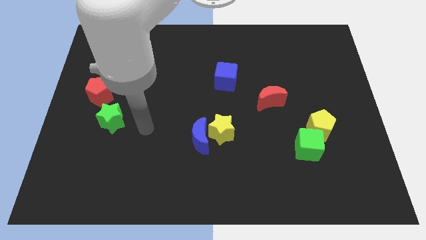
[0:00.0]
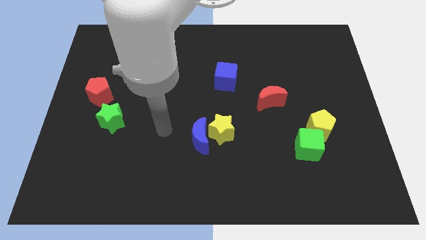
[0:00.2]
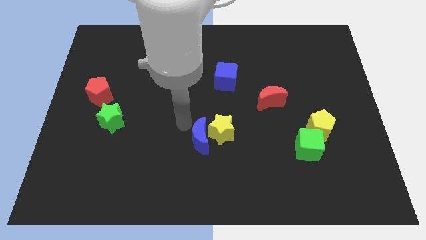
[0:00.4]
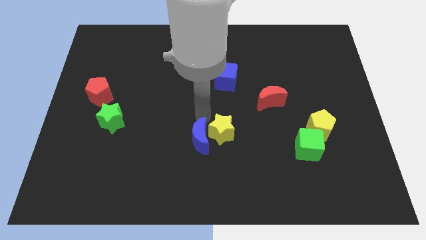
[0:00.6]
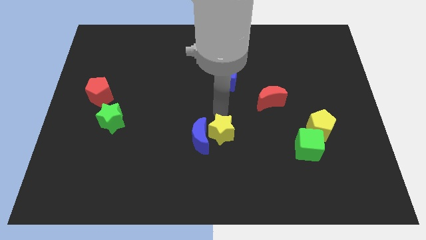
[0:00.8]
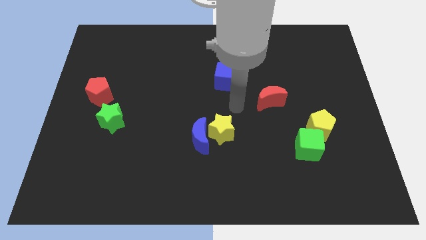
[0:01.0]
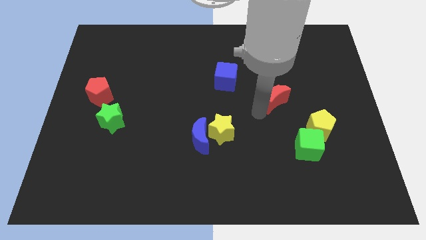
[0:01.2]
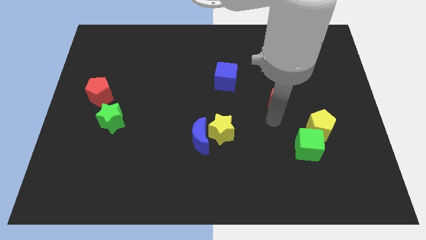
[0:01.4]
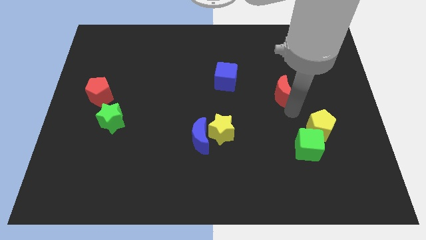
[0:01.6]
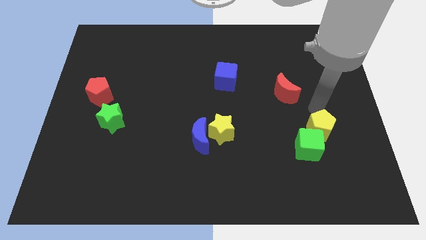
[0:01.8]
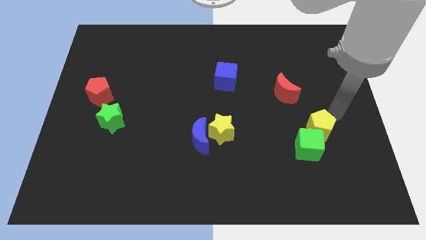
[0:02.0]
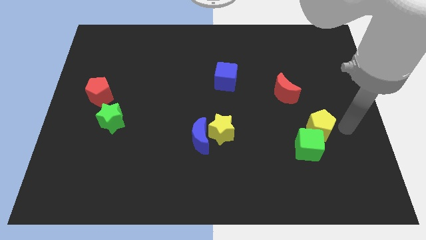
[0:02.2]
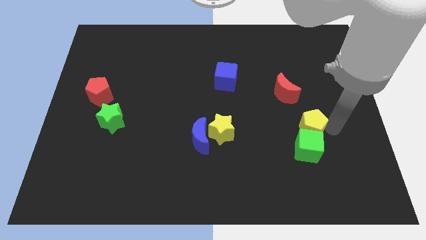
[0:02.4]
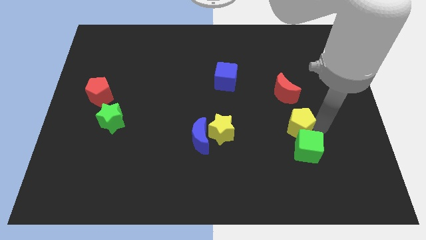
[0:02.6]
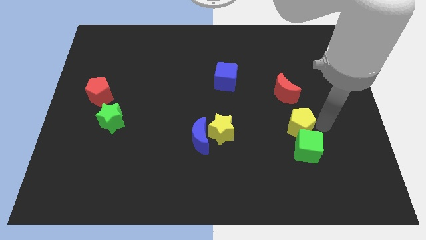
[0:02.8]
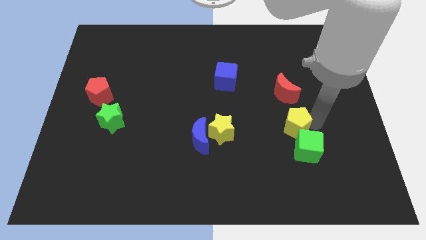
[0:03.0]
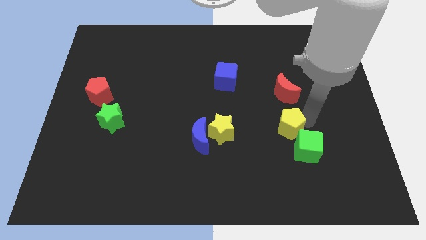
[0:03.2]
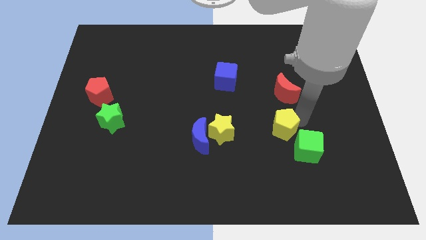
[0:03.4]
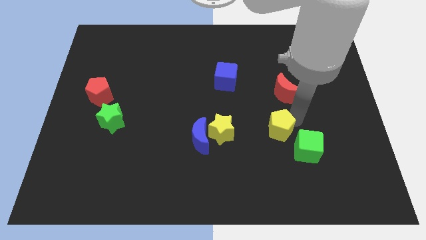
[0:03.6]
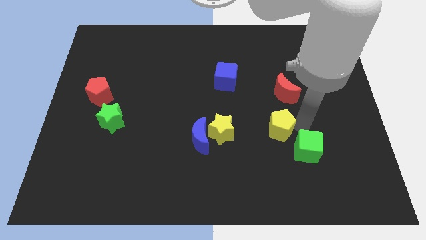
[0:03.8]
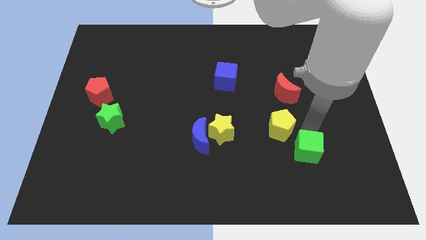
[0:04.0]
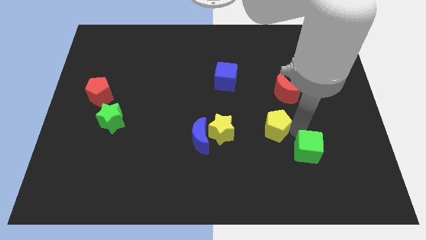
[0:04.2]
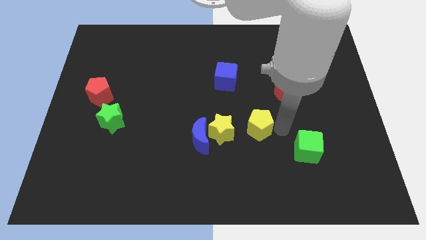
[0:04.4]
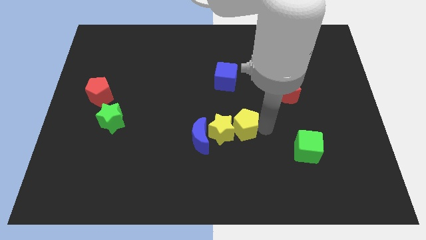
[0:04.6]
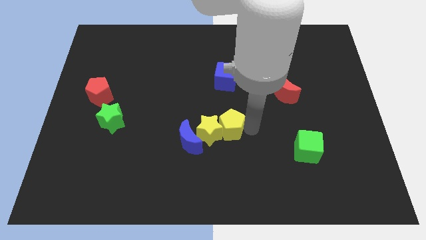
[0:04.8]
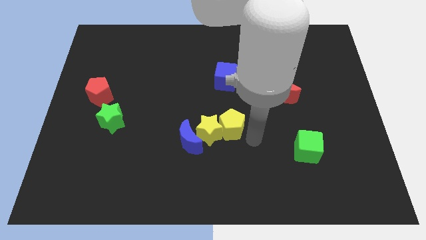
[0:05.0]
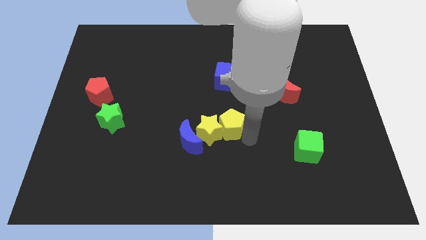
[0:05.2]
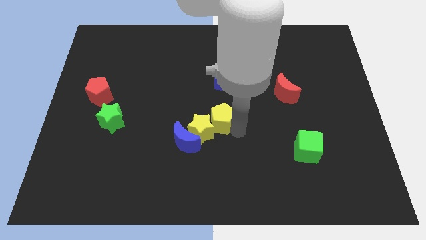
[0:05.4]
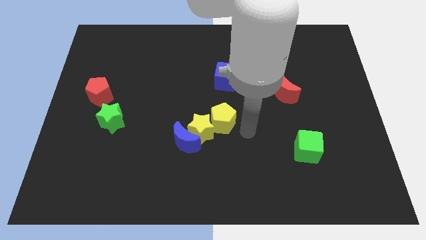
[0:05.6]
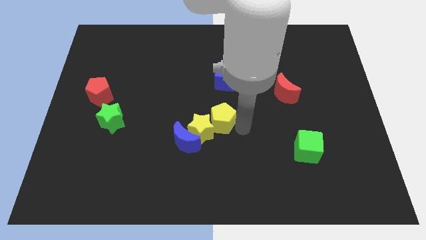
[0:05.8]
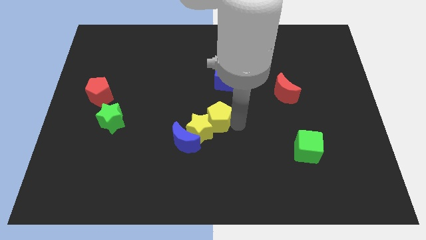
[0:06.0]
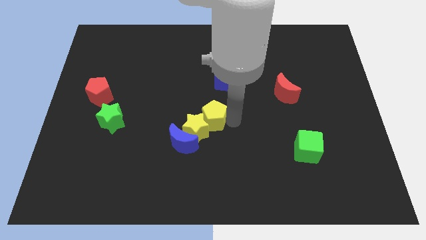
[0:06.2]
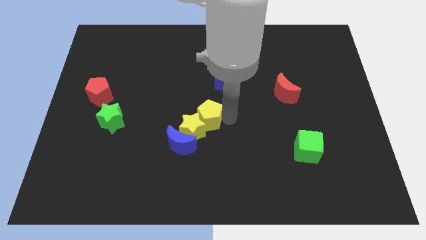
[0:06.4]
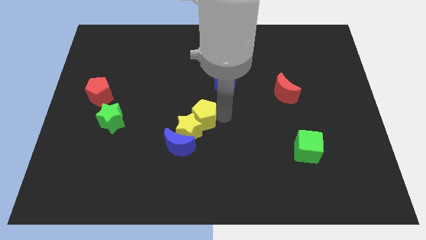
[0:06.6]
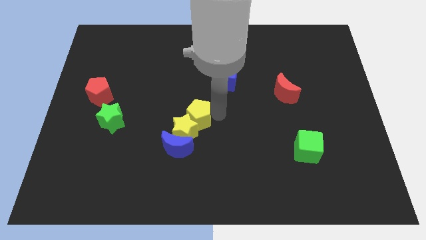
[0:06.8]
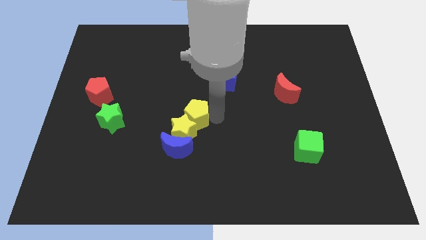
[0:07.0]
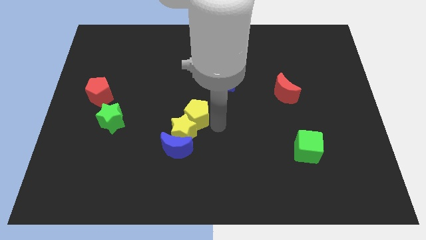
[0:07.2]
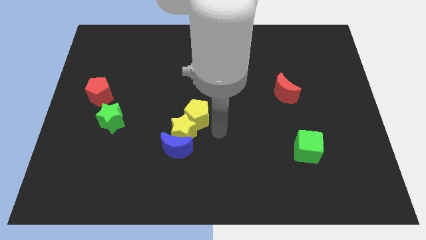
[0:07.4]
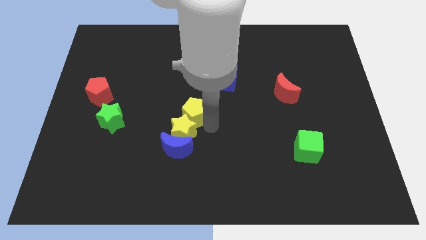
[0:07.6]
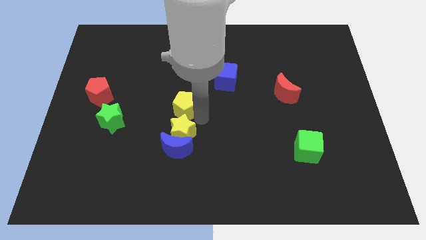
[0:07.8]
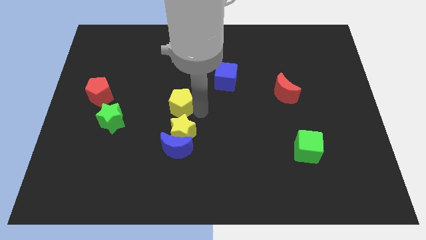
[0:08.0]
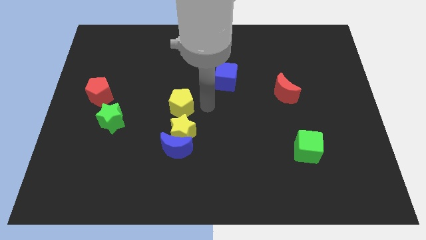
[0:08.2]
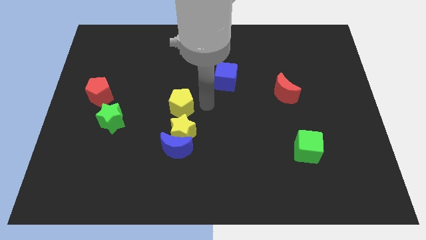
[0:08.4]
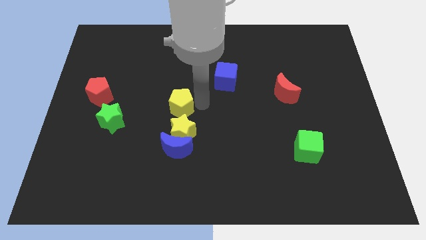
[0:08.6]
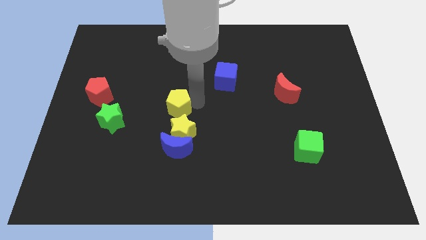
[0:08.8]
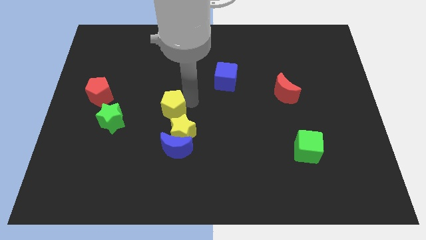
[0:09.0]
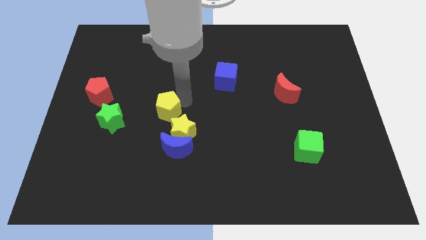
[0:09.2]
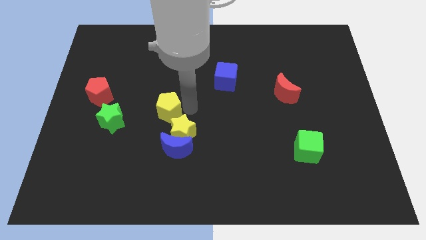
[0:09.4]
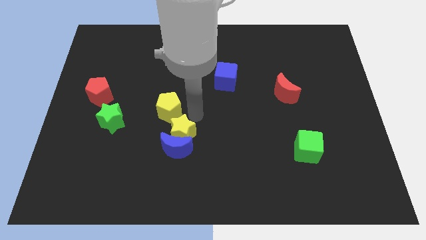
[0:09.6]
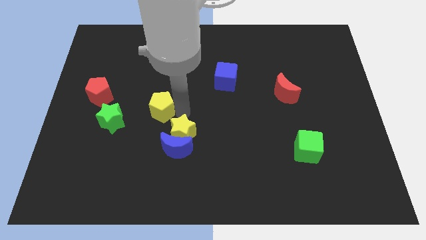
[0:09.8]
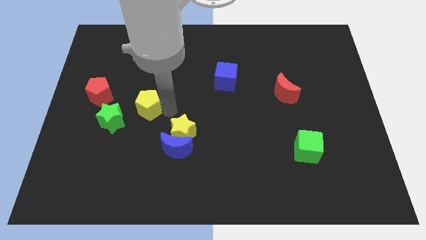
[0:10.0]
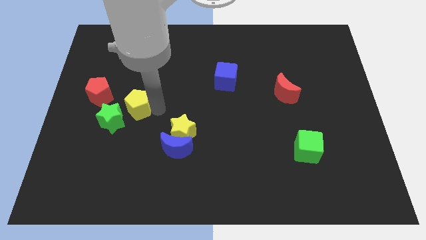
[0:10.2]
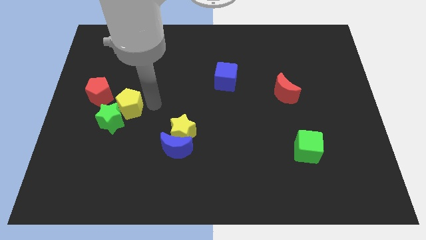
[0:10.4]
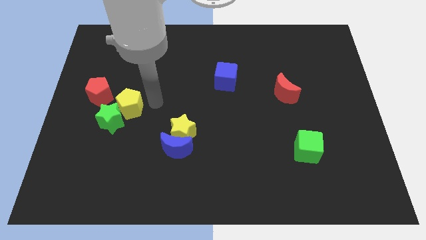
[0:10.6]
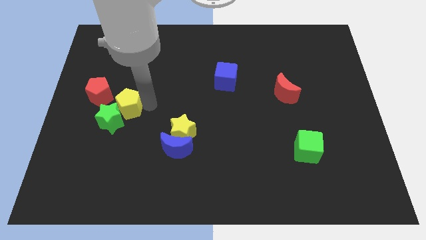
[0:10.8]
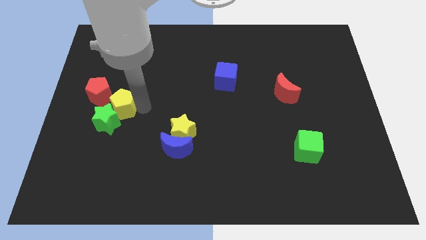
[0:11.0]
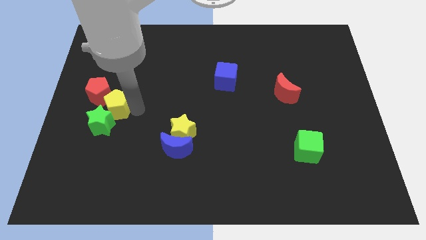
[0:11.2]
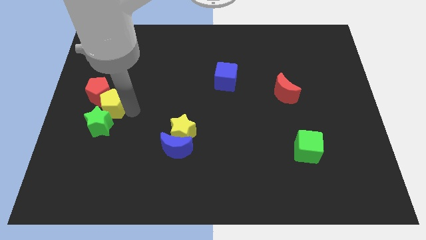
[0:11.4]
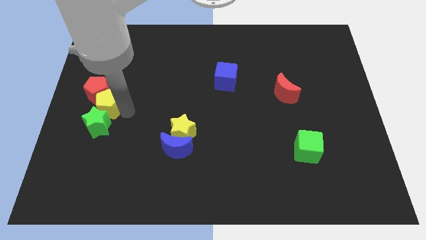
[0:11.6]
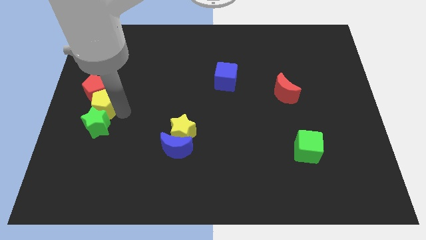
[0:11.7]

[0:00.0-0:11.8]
push the yellow pentagon to the center left

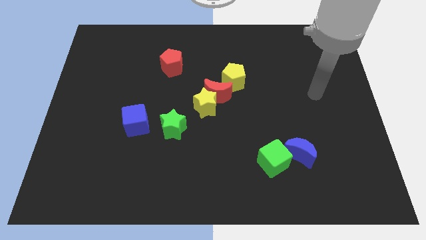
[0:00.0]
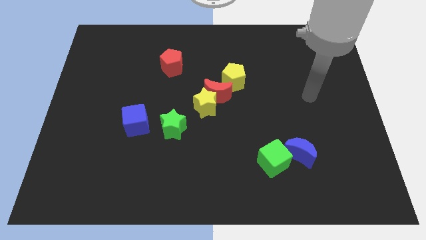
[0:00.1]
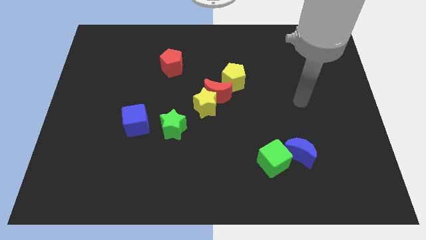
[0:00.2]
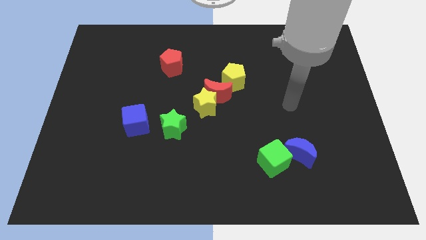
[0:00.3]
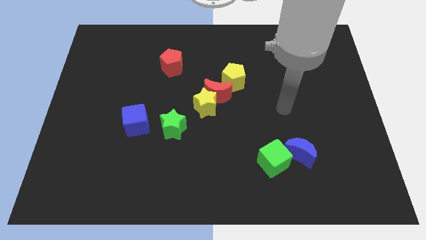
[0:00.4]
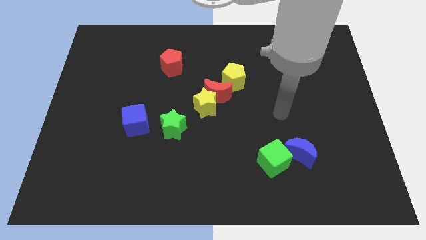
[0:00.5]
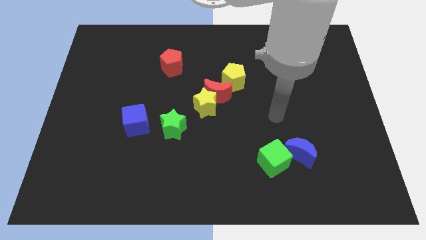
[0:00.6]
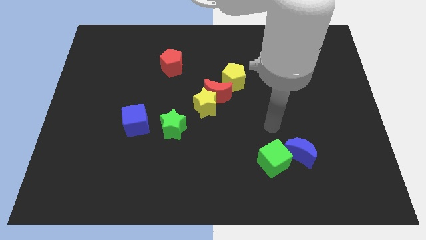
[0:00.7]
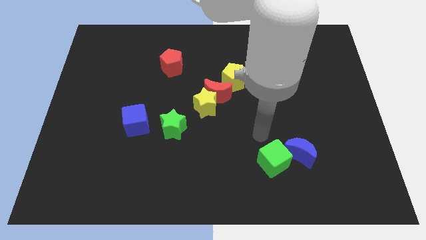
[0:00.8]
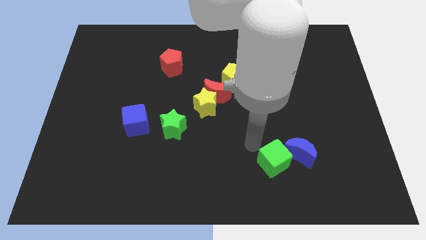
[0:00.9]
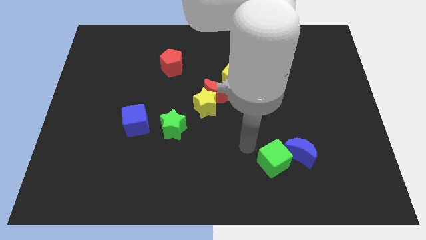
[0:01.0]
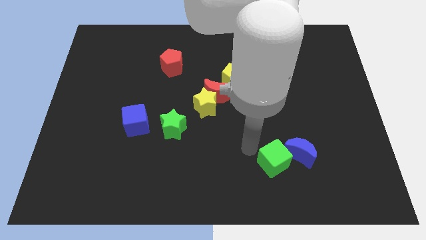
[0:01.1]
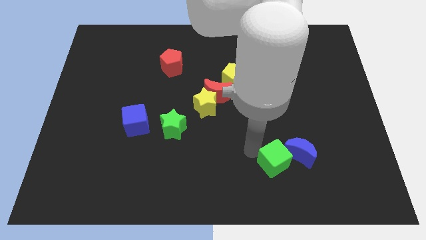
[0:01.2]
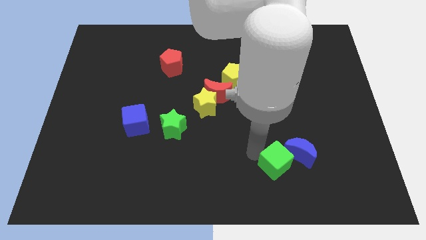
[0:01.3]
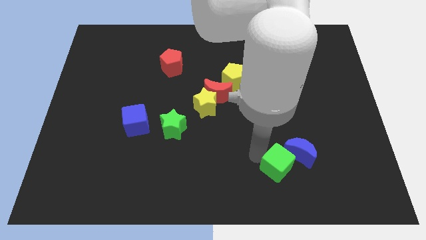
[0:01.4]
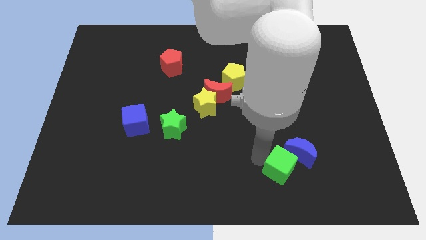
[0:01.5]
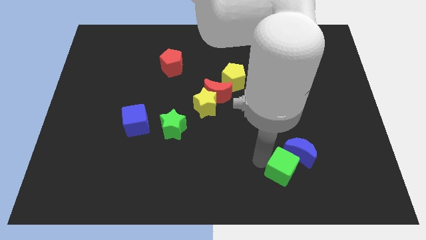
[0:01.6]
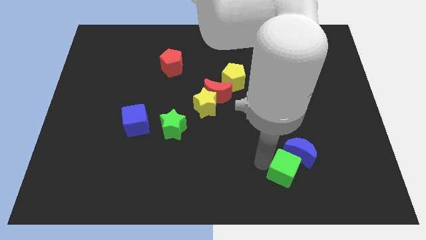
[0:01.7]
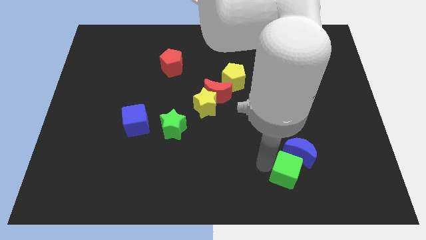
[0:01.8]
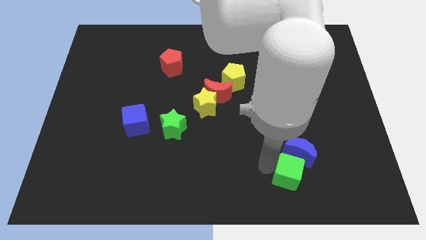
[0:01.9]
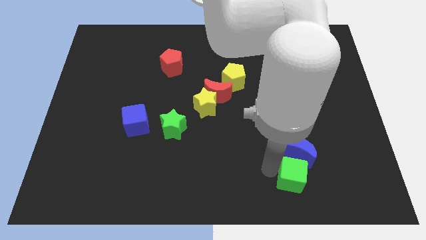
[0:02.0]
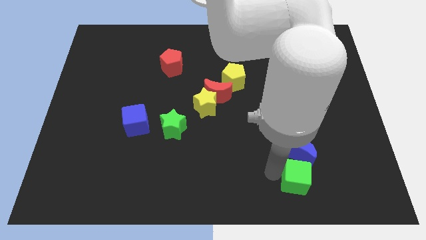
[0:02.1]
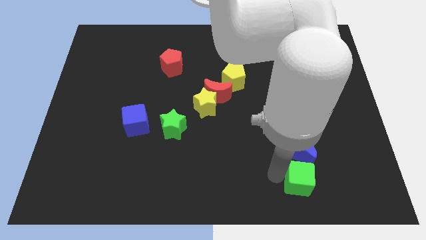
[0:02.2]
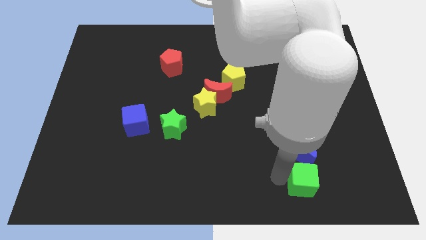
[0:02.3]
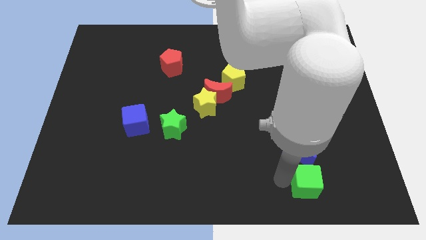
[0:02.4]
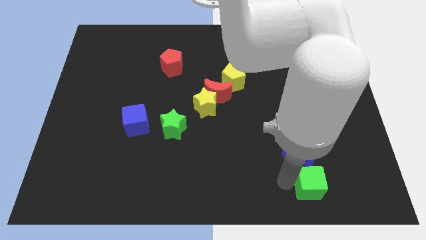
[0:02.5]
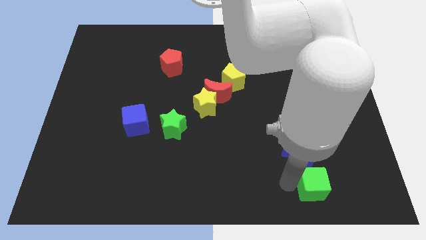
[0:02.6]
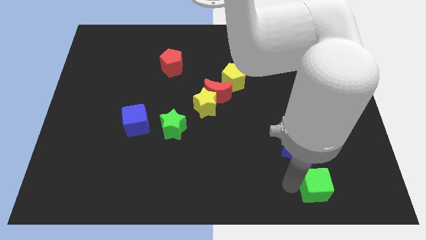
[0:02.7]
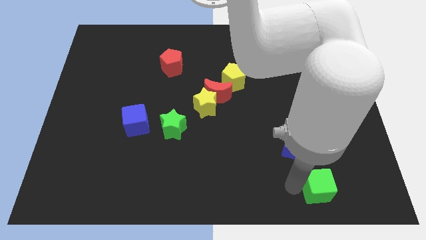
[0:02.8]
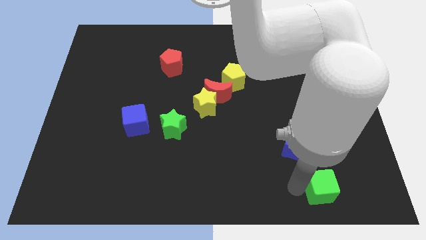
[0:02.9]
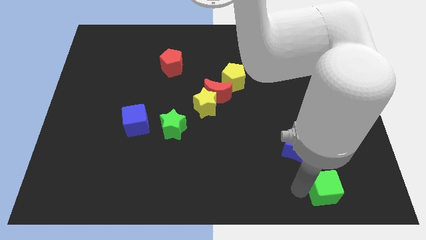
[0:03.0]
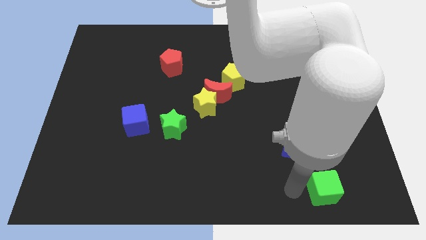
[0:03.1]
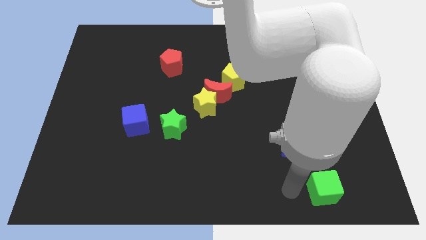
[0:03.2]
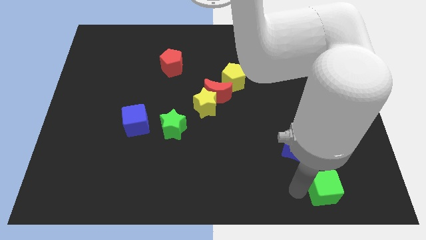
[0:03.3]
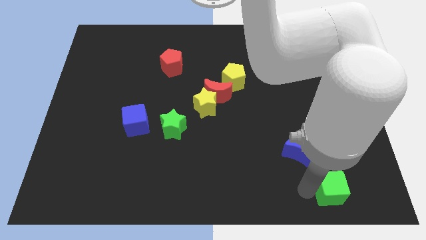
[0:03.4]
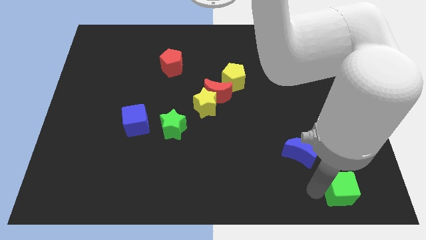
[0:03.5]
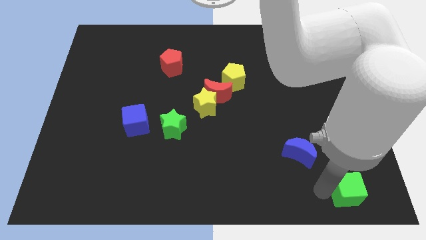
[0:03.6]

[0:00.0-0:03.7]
put the green cube to the bottom right
